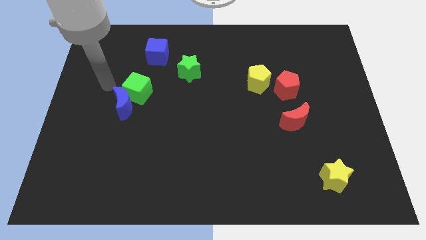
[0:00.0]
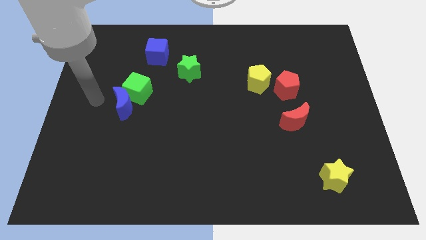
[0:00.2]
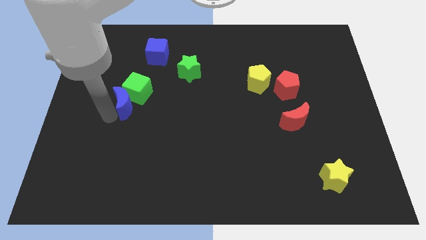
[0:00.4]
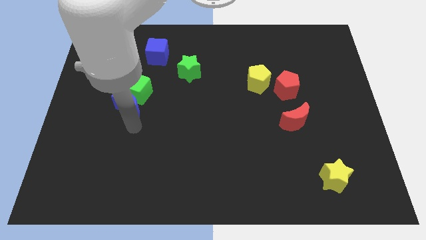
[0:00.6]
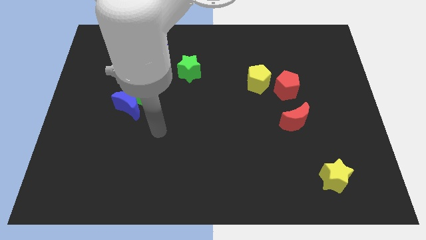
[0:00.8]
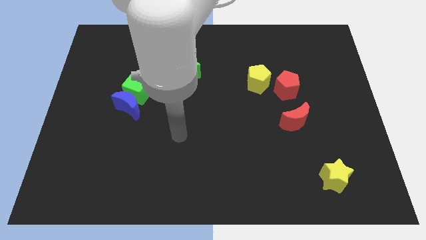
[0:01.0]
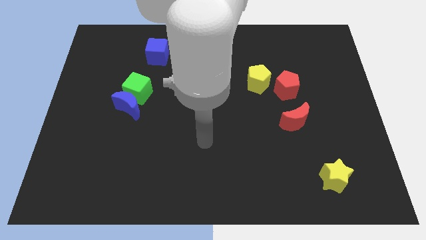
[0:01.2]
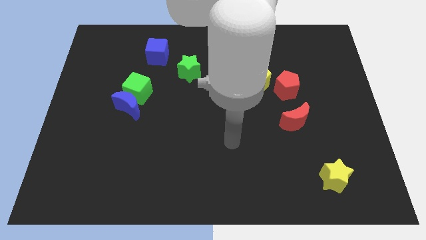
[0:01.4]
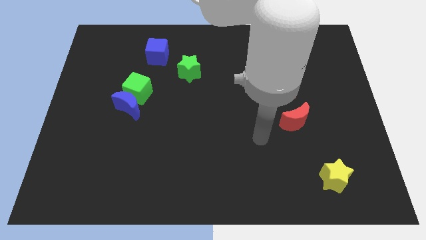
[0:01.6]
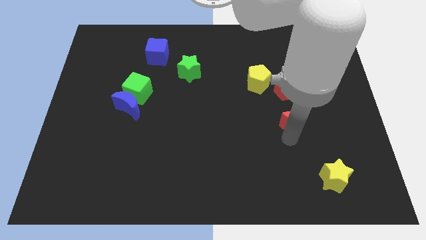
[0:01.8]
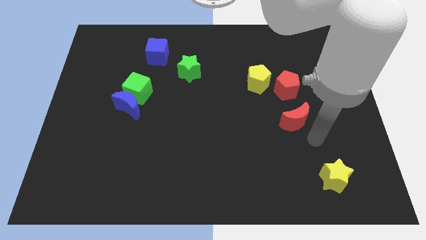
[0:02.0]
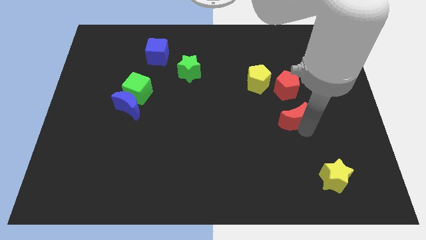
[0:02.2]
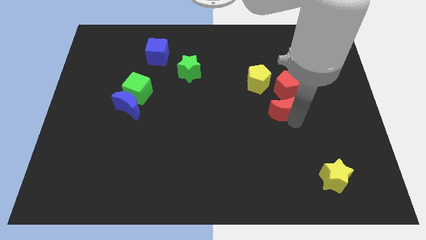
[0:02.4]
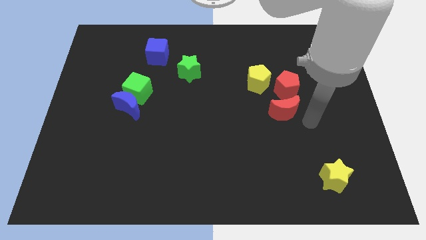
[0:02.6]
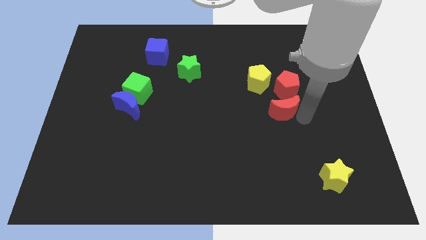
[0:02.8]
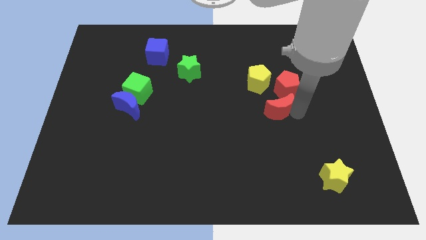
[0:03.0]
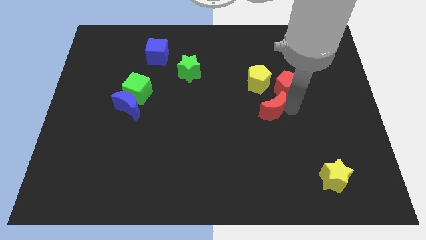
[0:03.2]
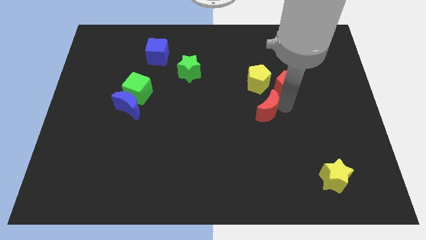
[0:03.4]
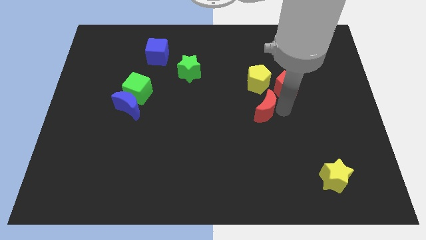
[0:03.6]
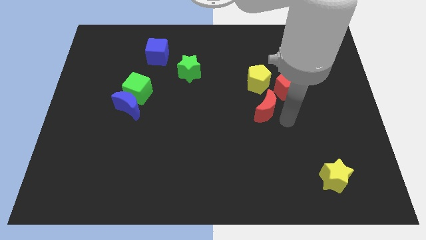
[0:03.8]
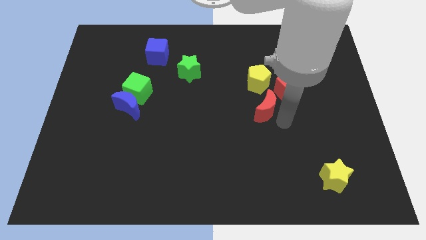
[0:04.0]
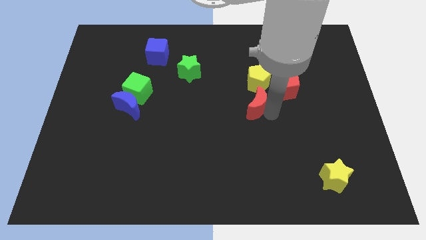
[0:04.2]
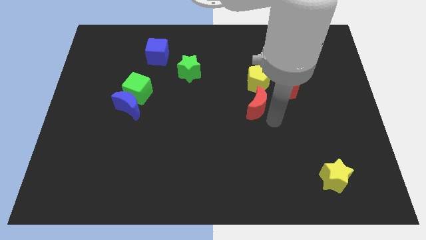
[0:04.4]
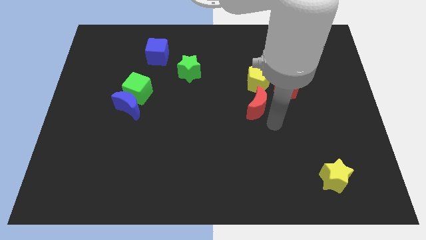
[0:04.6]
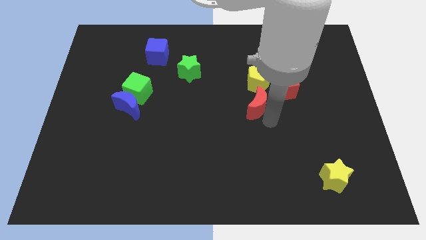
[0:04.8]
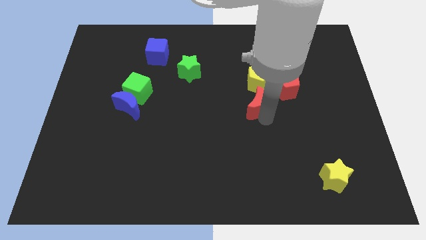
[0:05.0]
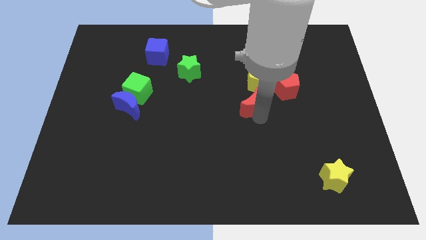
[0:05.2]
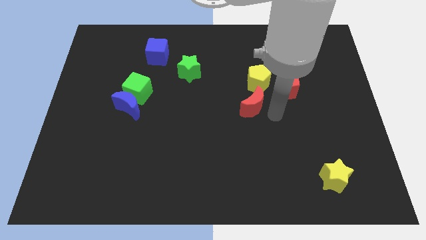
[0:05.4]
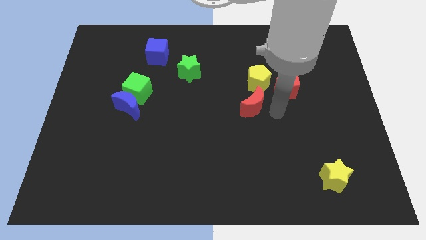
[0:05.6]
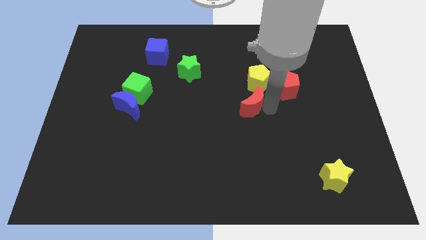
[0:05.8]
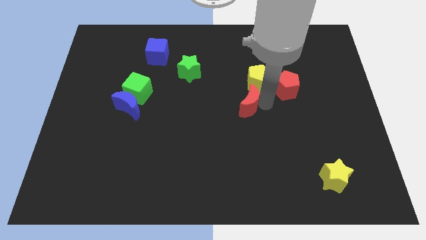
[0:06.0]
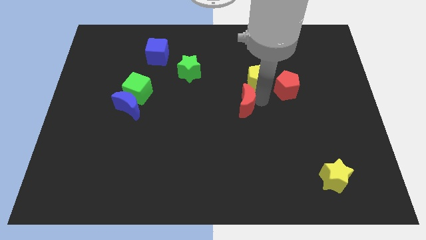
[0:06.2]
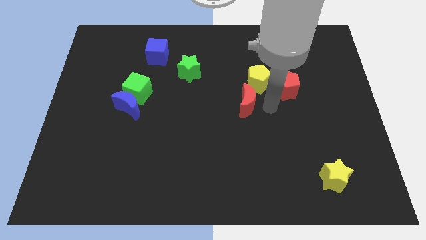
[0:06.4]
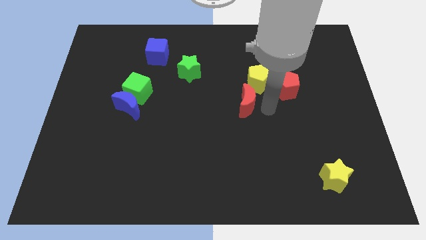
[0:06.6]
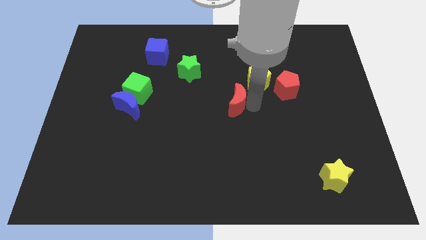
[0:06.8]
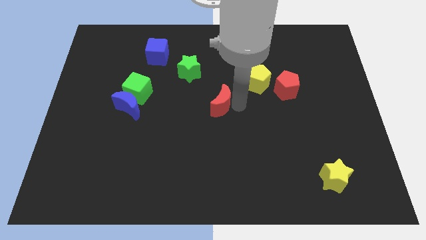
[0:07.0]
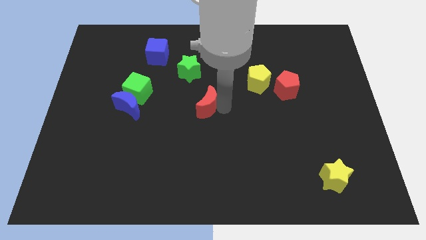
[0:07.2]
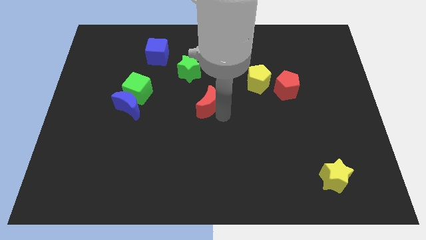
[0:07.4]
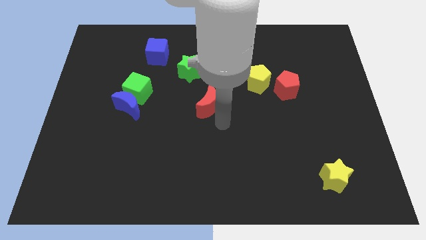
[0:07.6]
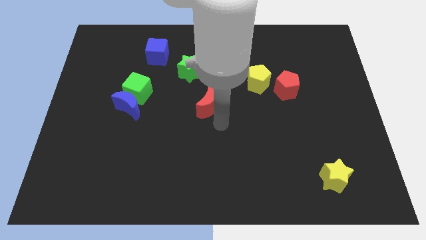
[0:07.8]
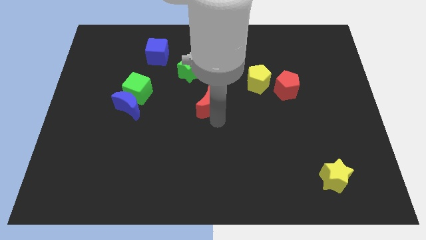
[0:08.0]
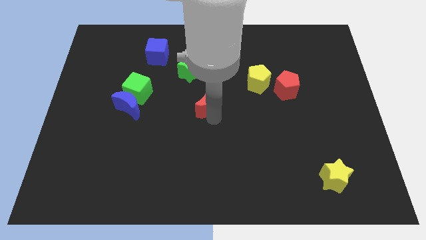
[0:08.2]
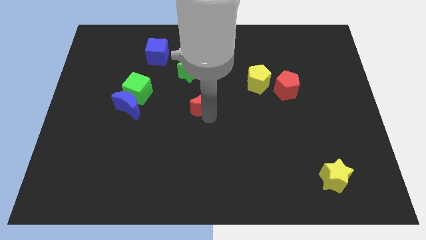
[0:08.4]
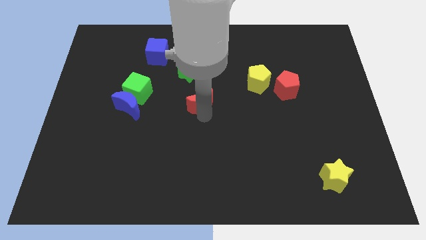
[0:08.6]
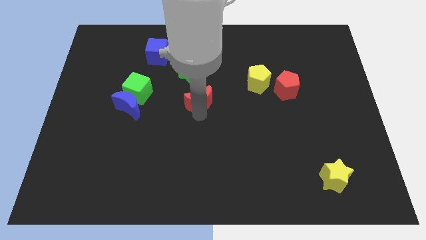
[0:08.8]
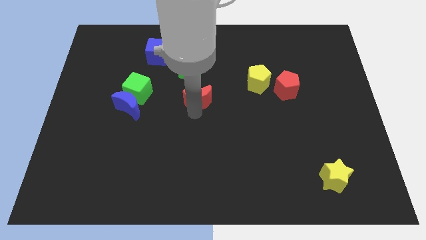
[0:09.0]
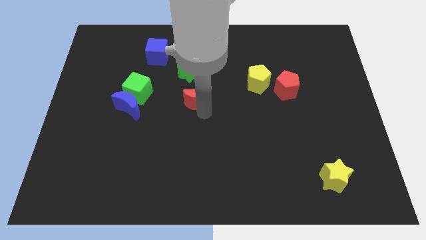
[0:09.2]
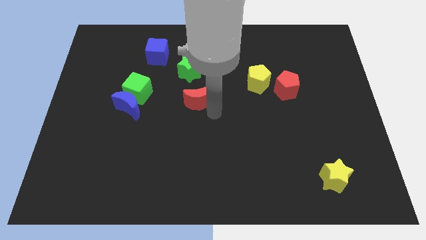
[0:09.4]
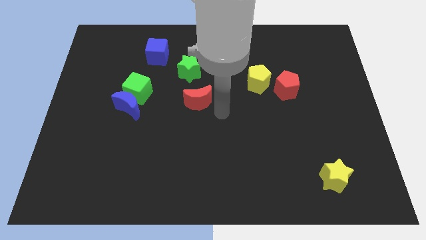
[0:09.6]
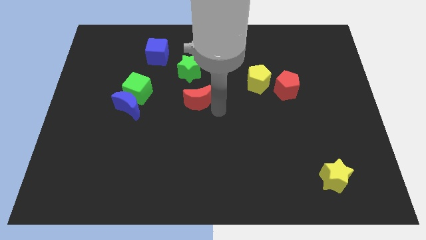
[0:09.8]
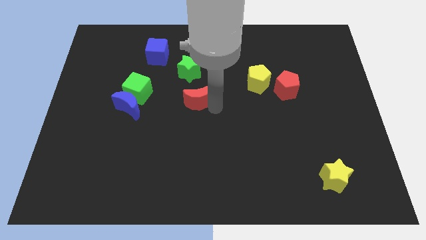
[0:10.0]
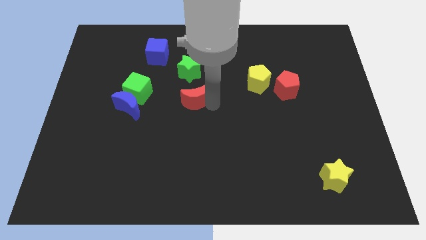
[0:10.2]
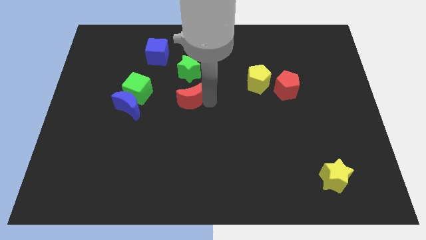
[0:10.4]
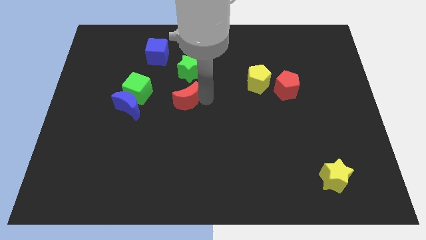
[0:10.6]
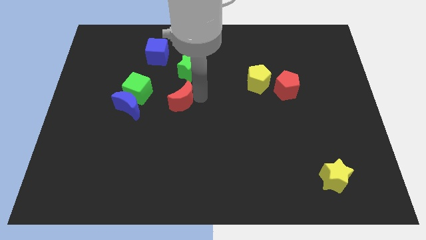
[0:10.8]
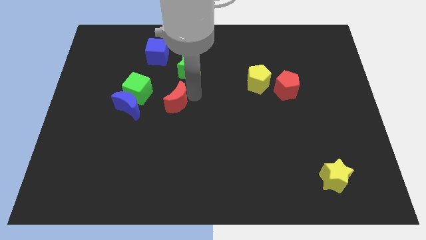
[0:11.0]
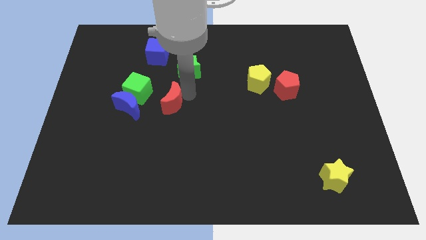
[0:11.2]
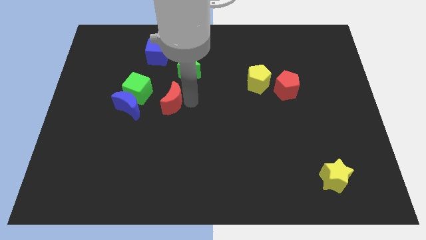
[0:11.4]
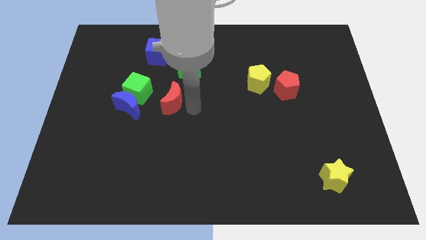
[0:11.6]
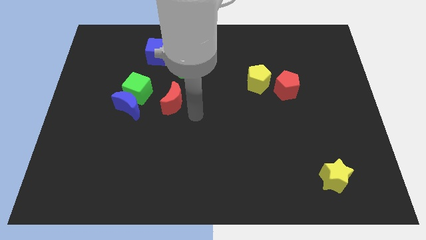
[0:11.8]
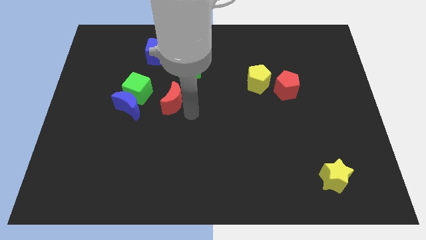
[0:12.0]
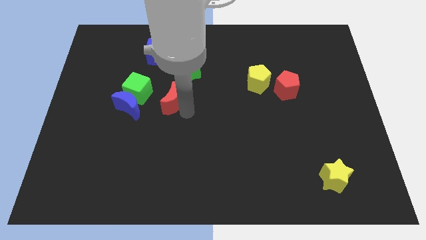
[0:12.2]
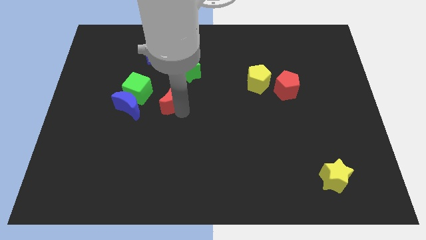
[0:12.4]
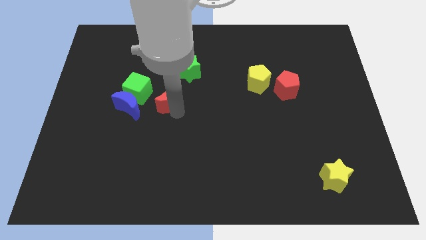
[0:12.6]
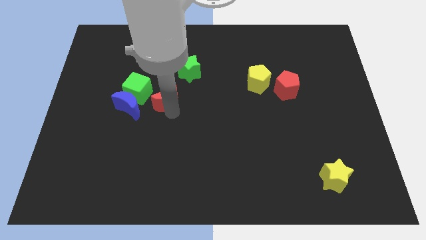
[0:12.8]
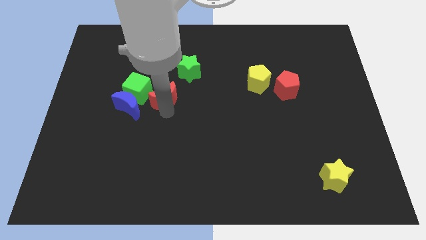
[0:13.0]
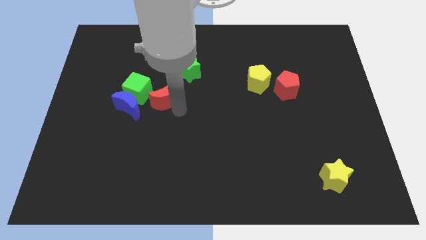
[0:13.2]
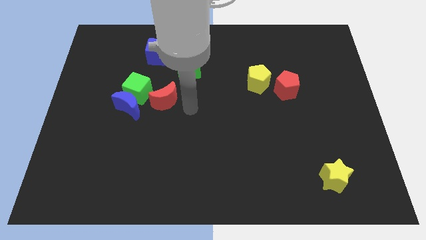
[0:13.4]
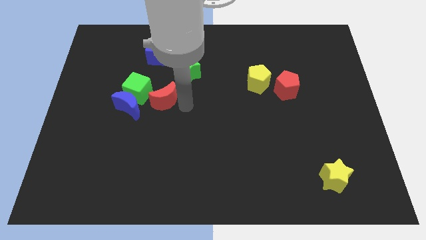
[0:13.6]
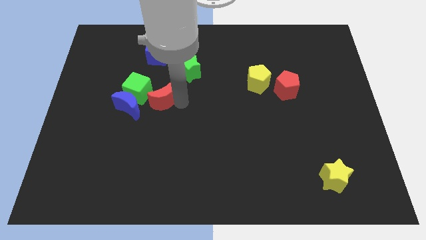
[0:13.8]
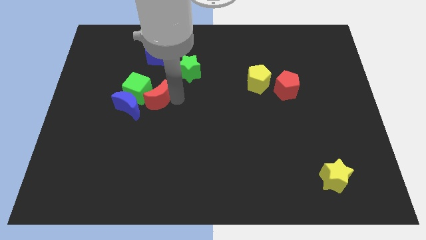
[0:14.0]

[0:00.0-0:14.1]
push the red moon towards the green cube
